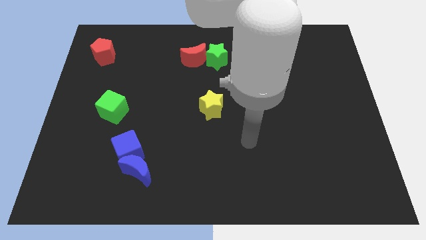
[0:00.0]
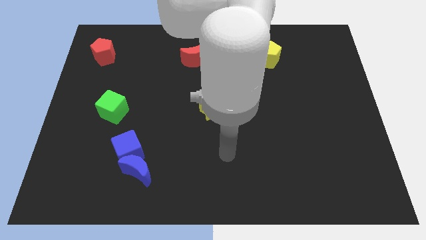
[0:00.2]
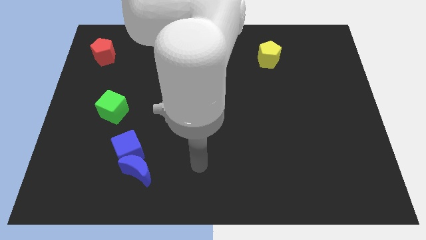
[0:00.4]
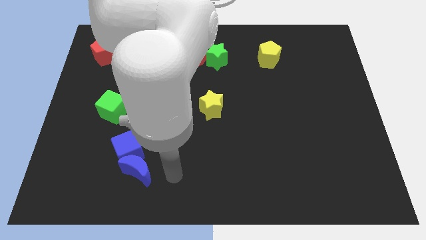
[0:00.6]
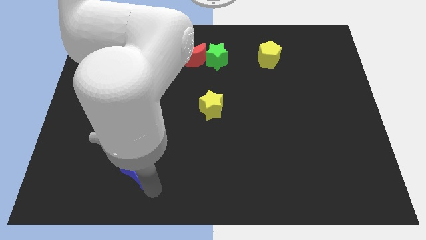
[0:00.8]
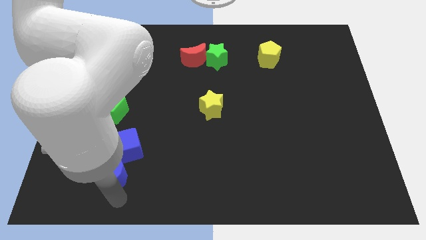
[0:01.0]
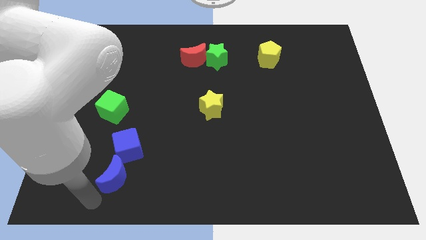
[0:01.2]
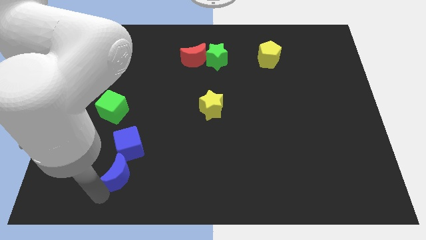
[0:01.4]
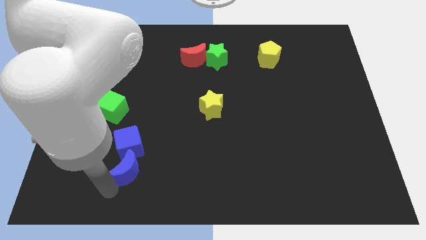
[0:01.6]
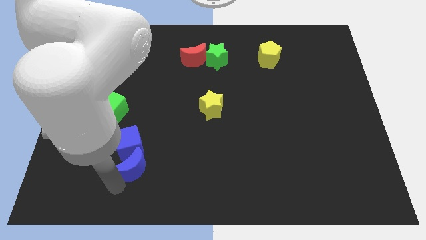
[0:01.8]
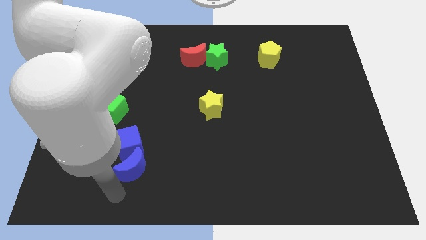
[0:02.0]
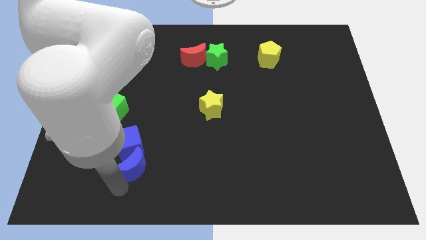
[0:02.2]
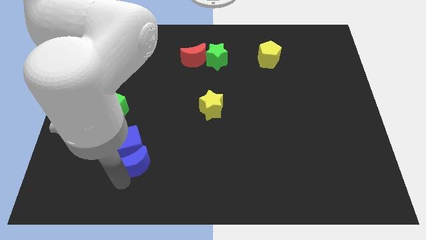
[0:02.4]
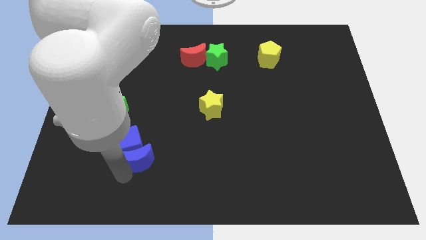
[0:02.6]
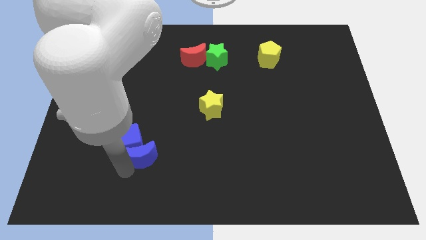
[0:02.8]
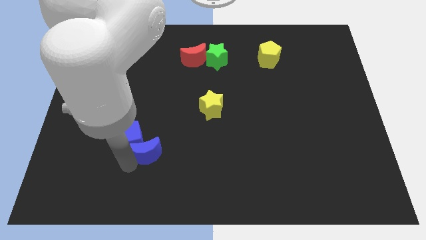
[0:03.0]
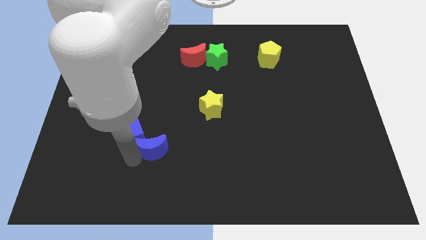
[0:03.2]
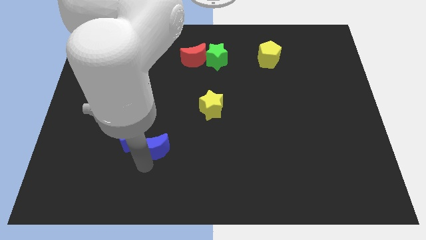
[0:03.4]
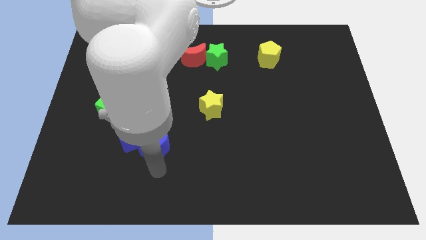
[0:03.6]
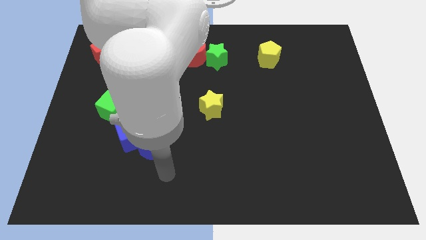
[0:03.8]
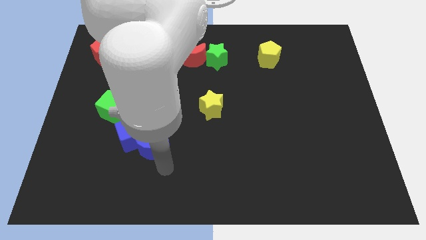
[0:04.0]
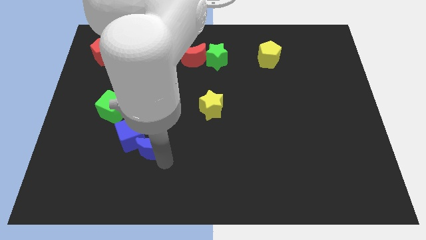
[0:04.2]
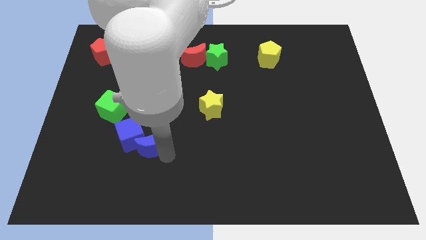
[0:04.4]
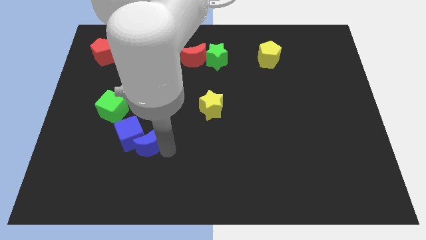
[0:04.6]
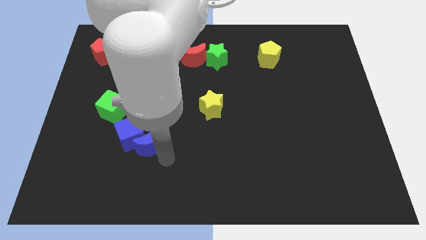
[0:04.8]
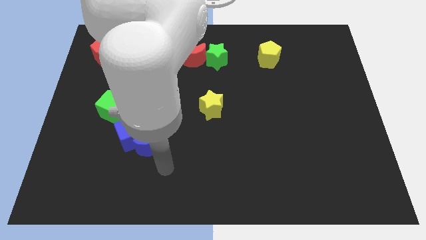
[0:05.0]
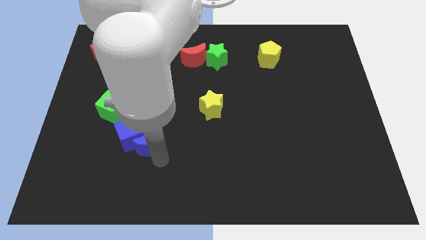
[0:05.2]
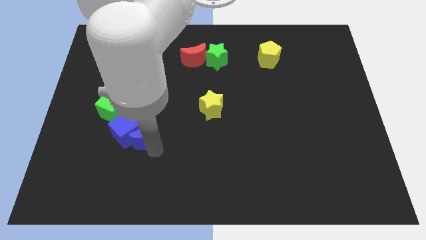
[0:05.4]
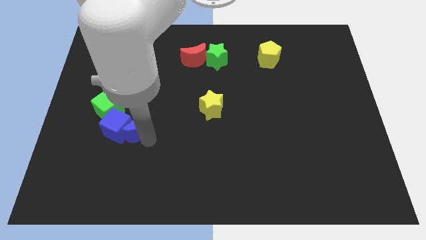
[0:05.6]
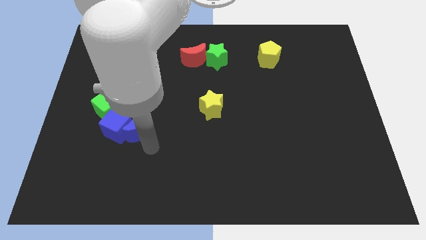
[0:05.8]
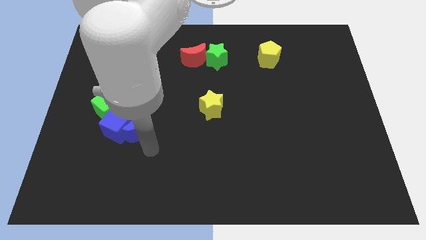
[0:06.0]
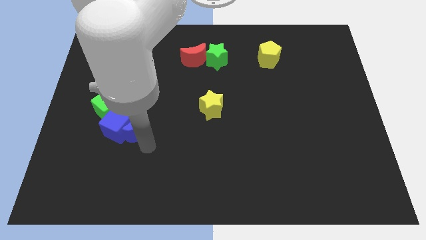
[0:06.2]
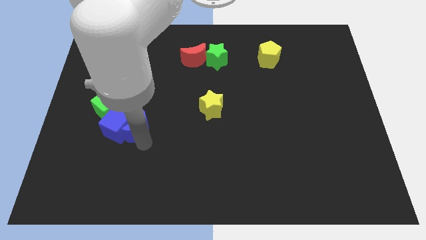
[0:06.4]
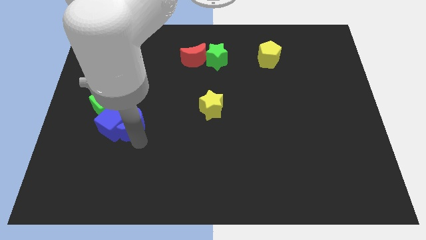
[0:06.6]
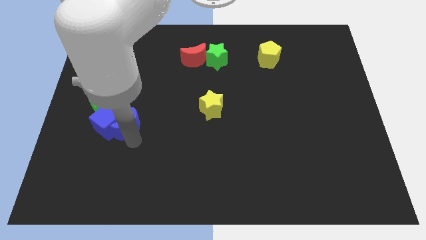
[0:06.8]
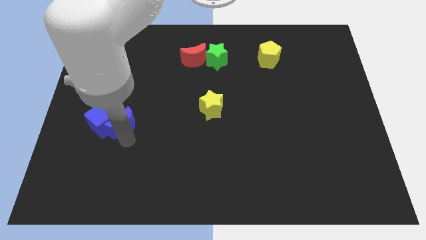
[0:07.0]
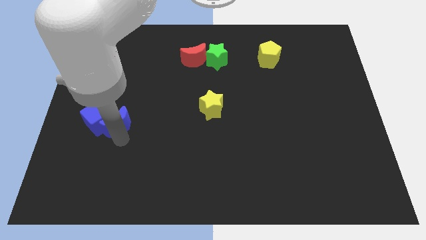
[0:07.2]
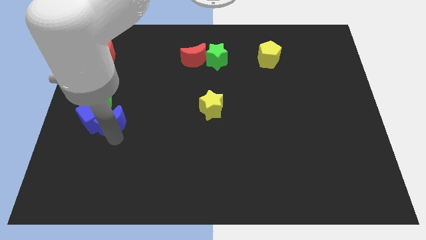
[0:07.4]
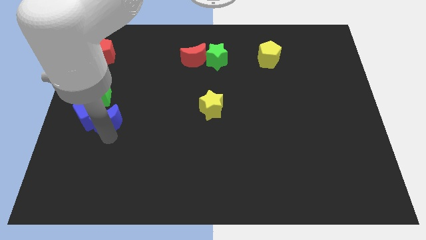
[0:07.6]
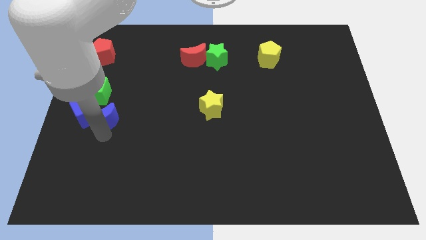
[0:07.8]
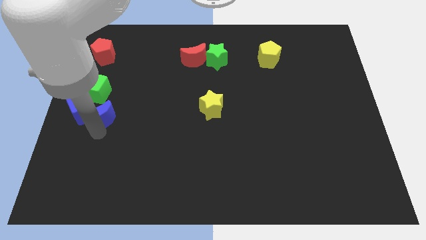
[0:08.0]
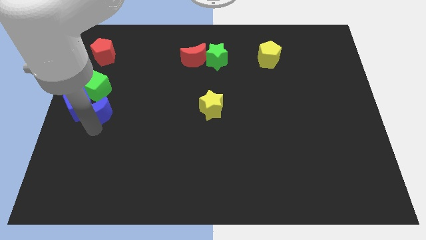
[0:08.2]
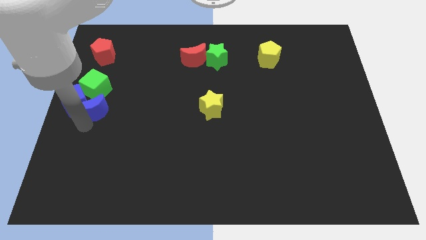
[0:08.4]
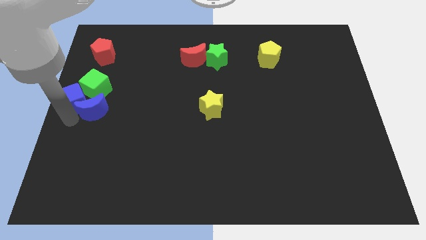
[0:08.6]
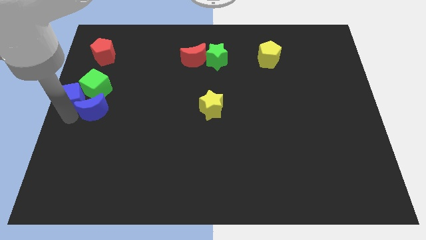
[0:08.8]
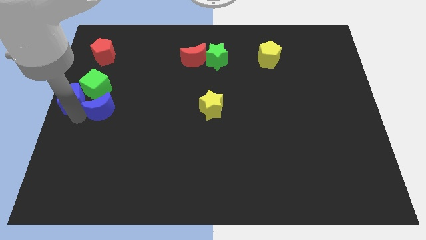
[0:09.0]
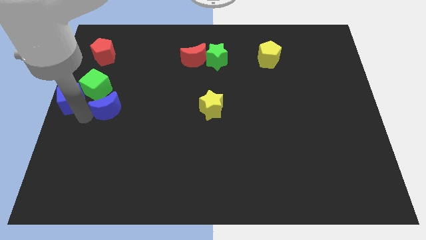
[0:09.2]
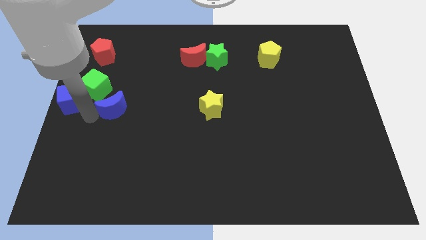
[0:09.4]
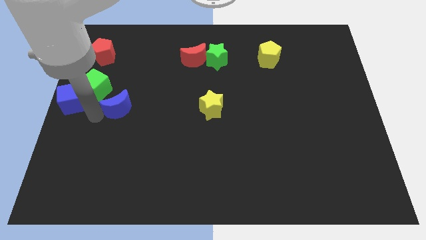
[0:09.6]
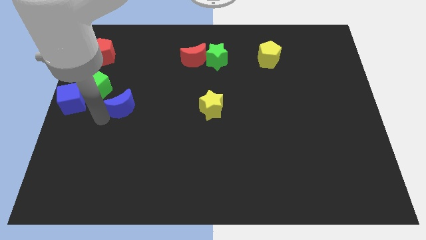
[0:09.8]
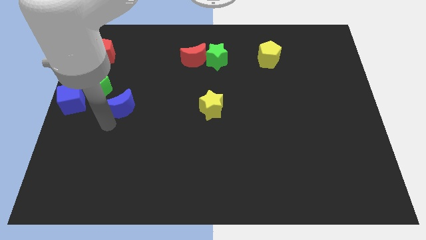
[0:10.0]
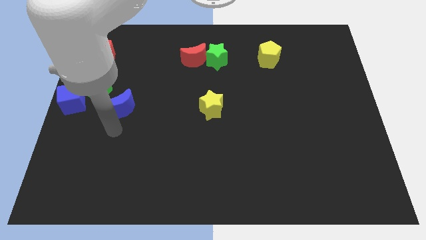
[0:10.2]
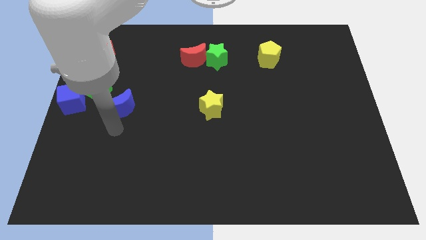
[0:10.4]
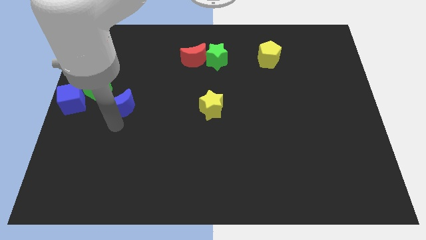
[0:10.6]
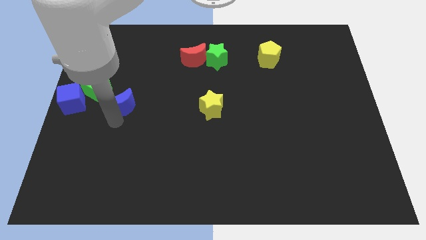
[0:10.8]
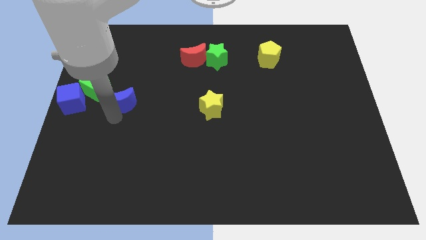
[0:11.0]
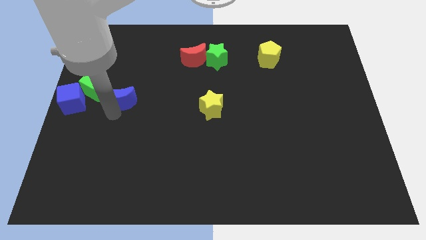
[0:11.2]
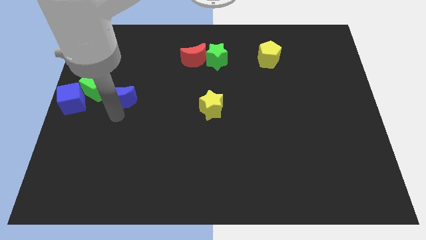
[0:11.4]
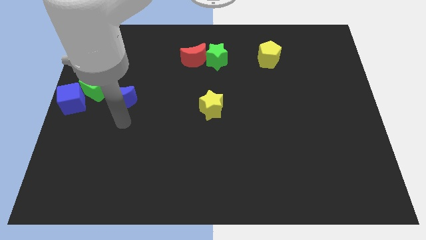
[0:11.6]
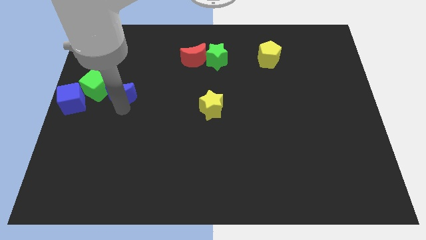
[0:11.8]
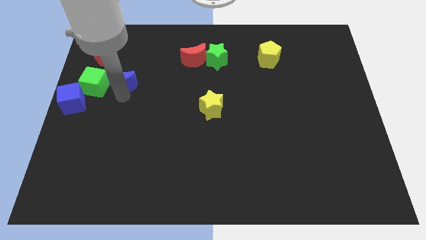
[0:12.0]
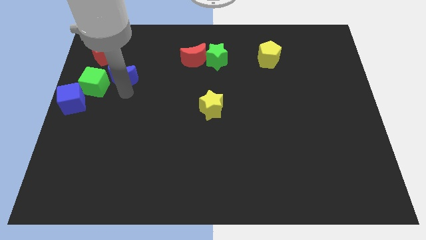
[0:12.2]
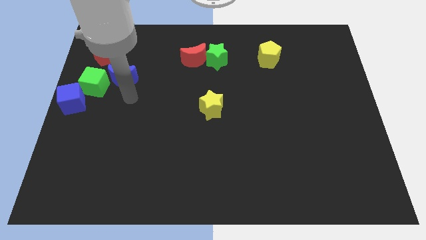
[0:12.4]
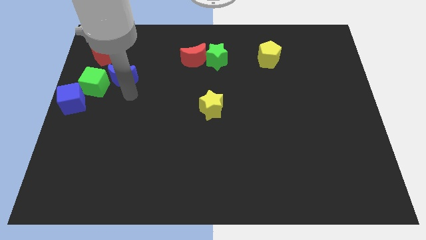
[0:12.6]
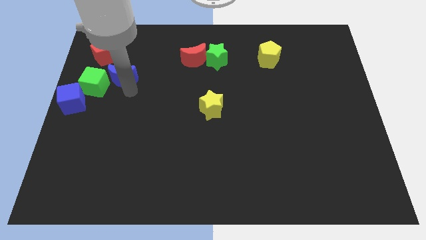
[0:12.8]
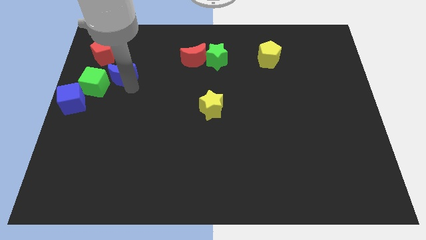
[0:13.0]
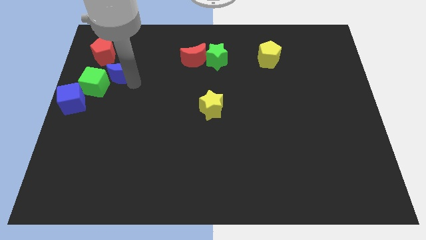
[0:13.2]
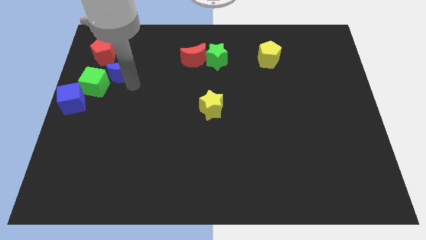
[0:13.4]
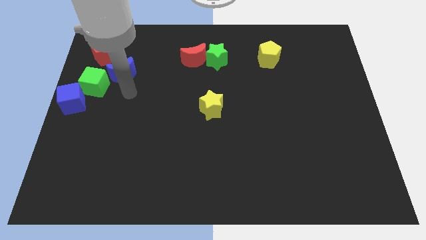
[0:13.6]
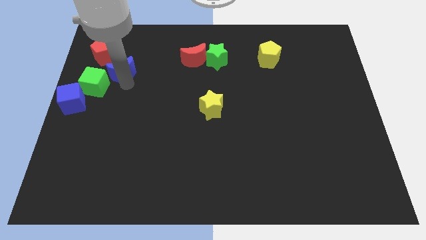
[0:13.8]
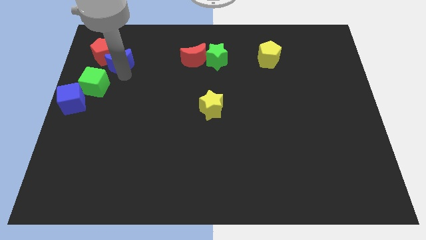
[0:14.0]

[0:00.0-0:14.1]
put the blue moon close to the red pentagon

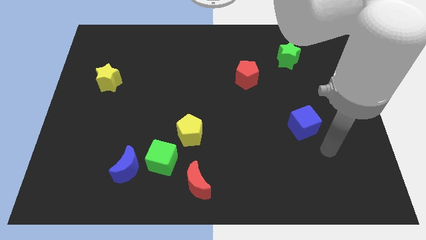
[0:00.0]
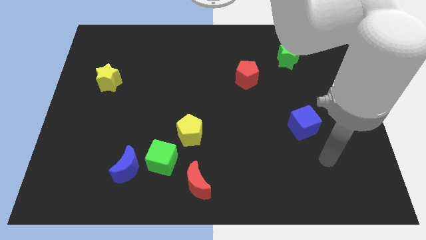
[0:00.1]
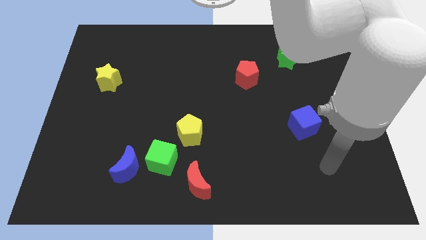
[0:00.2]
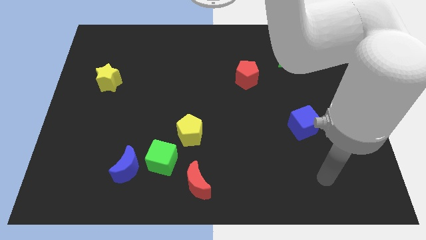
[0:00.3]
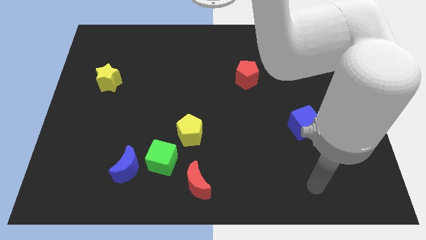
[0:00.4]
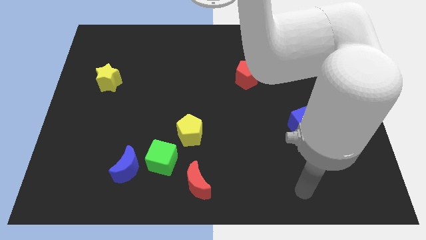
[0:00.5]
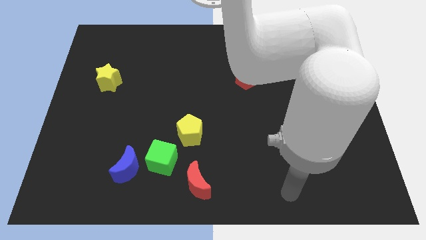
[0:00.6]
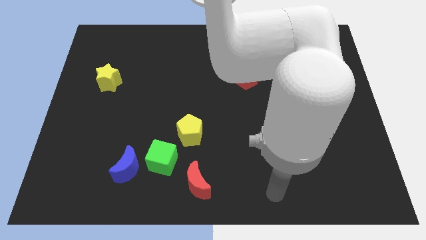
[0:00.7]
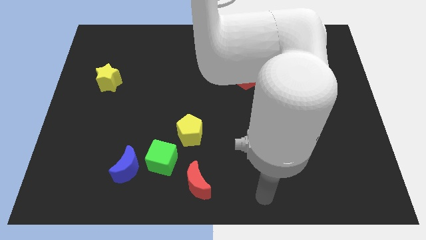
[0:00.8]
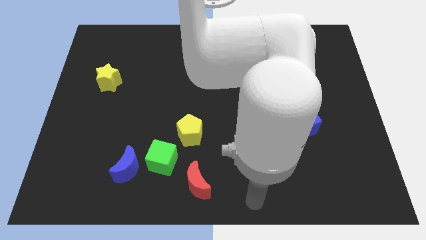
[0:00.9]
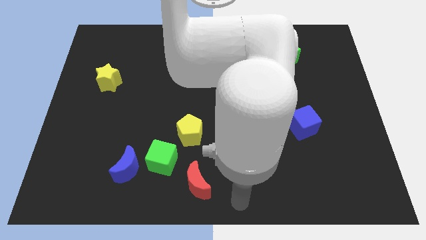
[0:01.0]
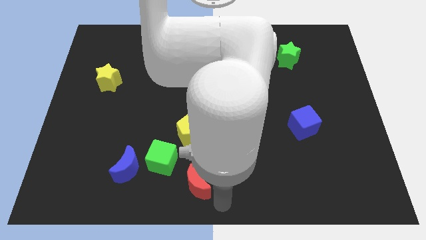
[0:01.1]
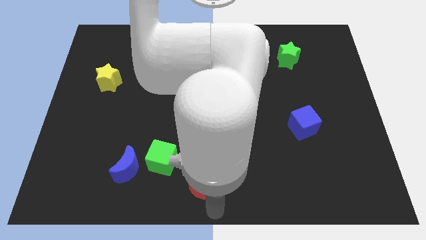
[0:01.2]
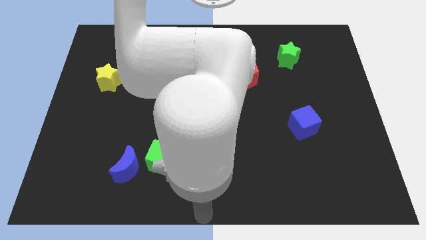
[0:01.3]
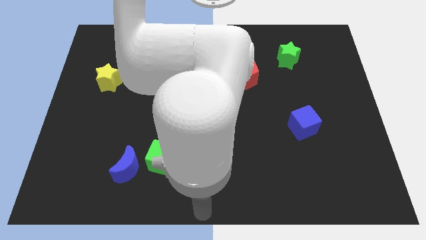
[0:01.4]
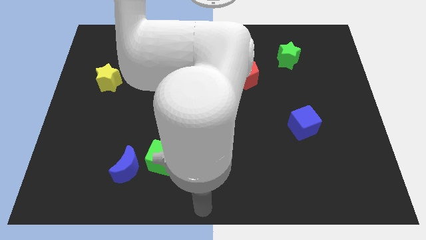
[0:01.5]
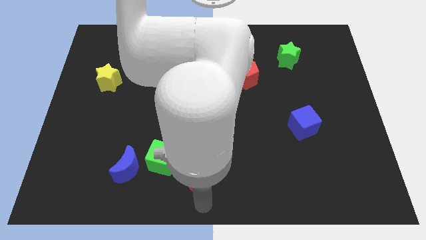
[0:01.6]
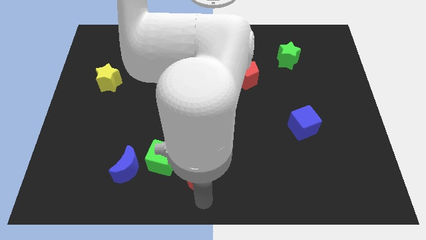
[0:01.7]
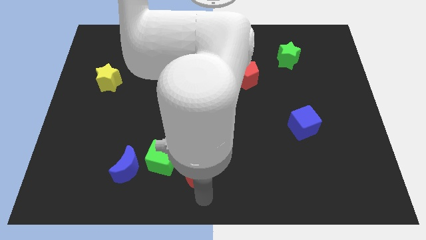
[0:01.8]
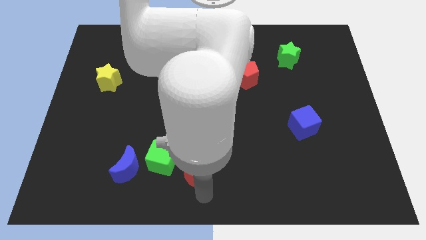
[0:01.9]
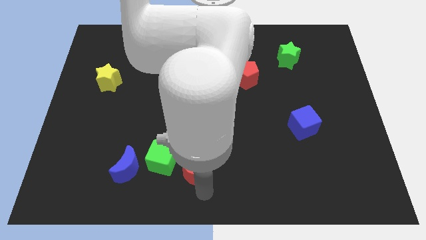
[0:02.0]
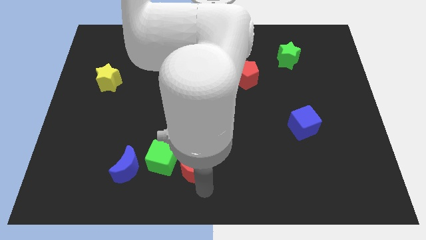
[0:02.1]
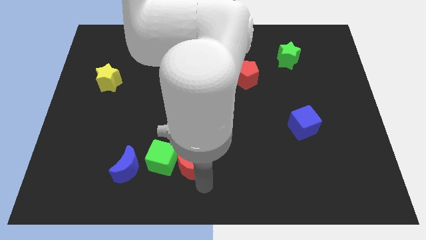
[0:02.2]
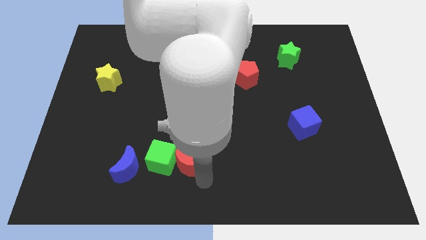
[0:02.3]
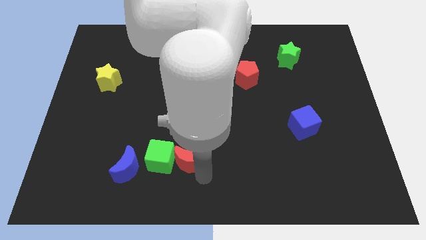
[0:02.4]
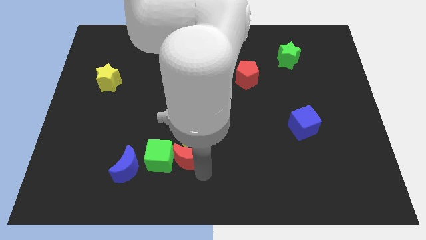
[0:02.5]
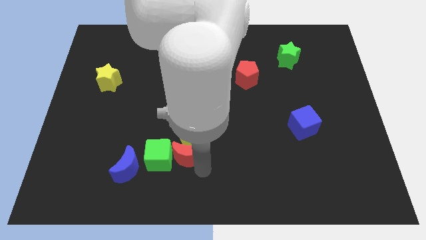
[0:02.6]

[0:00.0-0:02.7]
push the red moon close to the yellow pentagon
